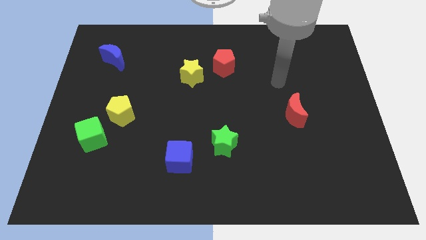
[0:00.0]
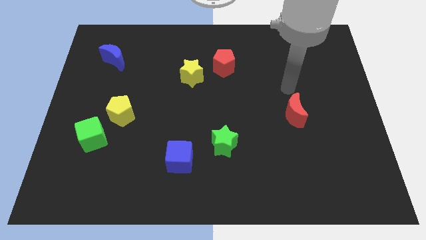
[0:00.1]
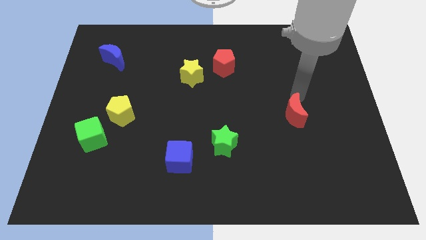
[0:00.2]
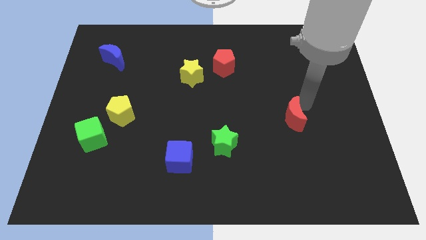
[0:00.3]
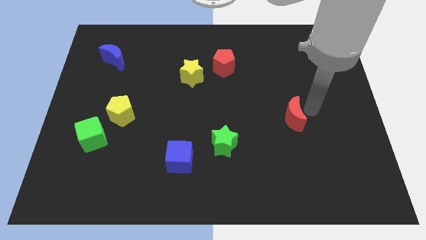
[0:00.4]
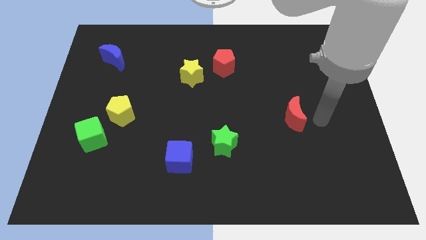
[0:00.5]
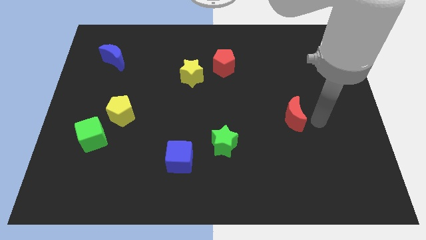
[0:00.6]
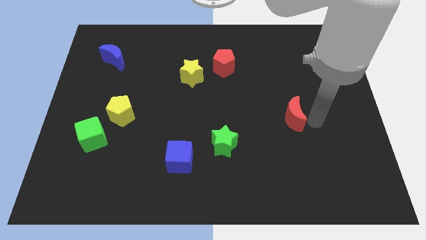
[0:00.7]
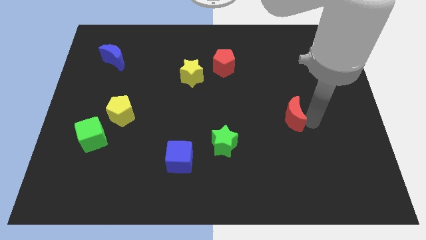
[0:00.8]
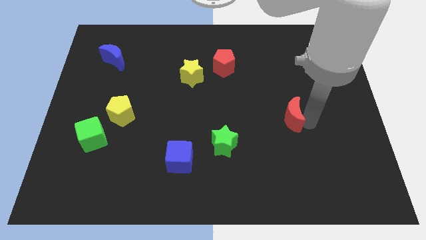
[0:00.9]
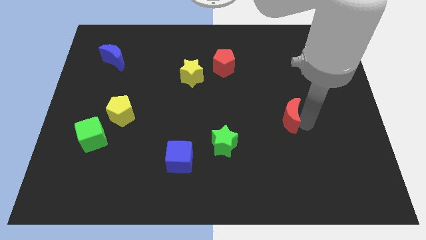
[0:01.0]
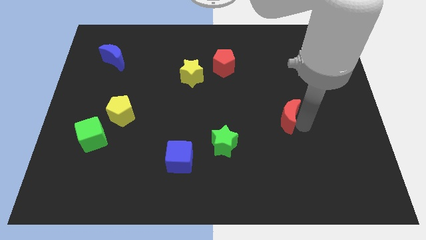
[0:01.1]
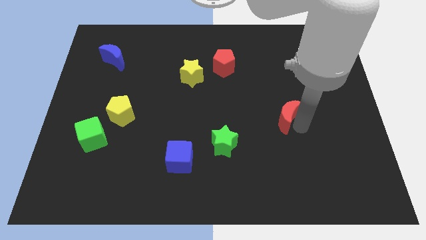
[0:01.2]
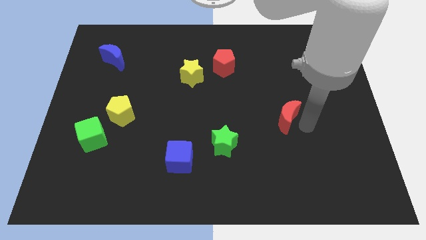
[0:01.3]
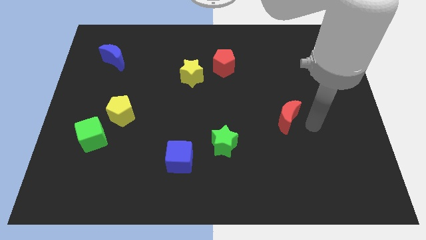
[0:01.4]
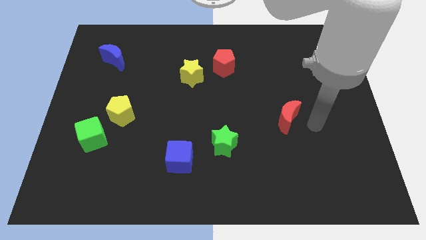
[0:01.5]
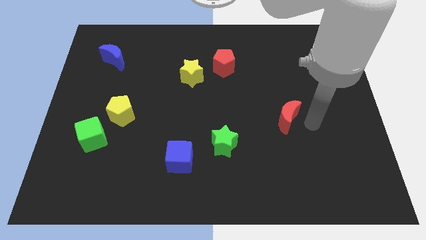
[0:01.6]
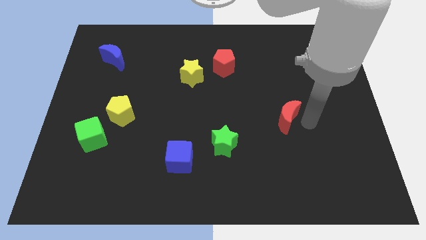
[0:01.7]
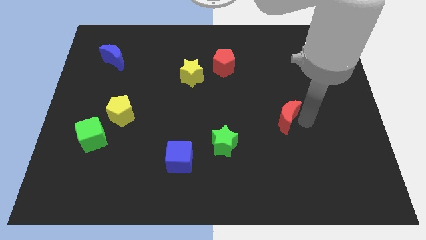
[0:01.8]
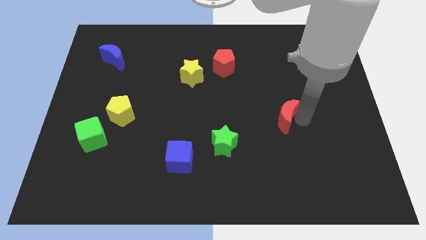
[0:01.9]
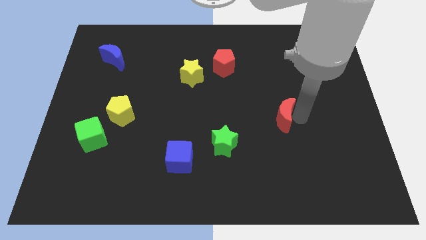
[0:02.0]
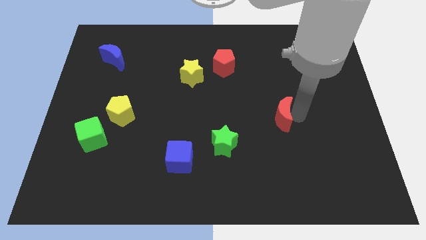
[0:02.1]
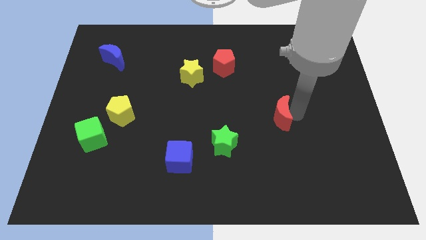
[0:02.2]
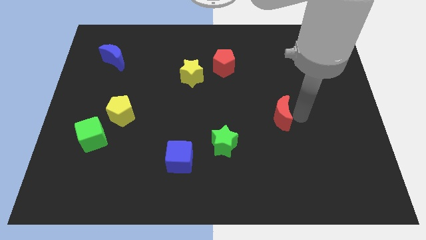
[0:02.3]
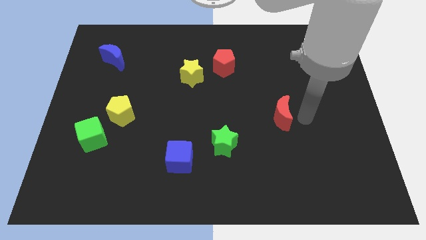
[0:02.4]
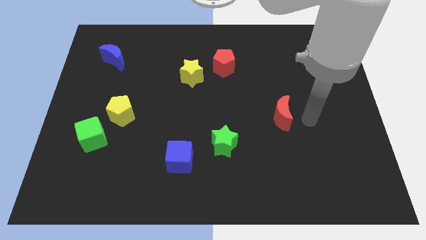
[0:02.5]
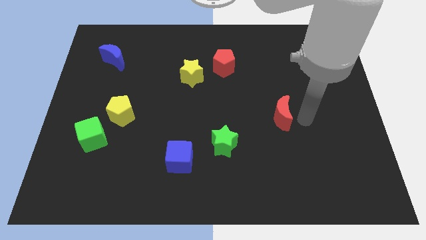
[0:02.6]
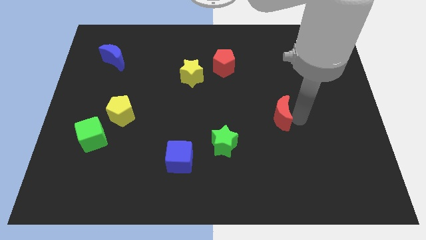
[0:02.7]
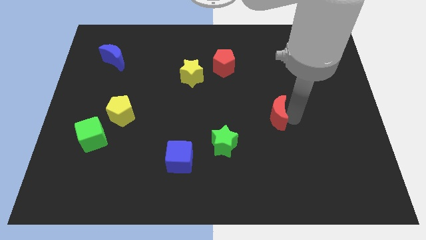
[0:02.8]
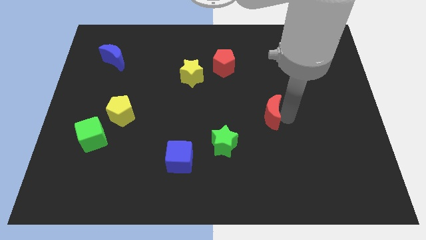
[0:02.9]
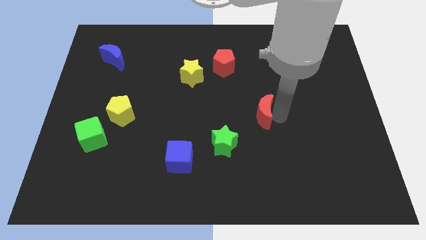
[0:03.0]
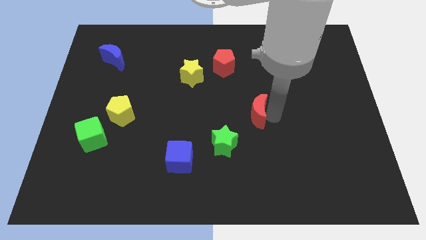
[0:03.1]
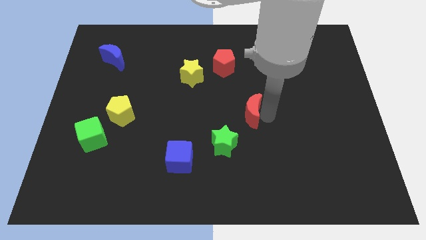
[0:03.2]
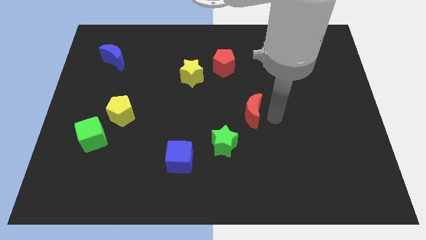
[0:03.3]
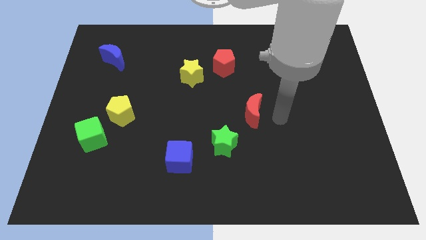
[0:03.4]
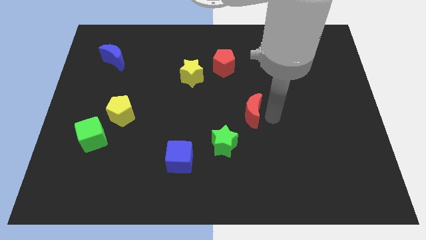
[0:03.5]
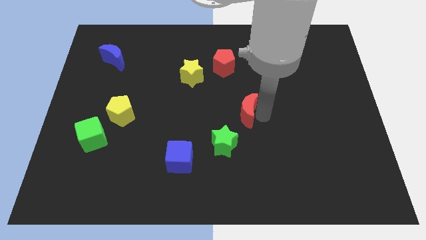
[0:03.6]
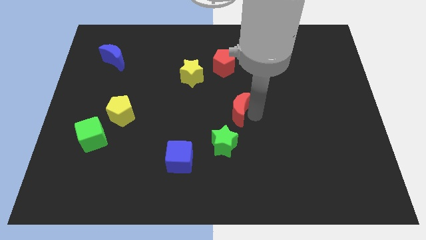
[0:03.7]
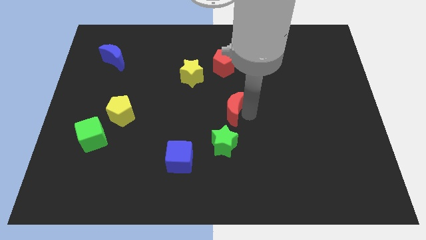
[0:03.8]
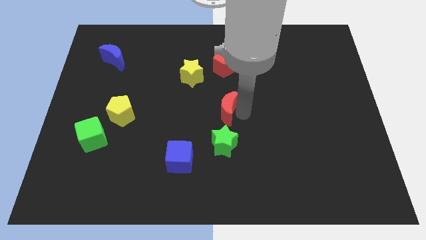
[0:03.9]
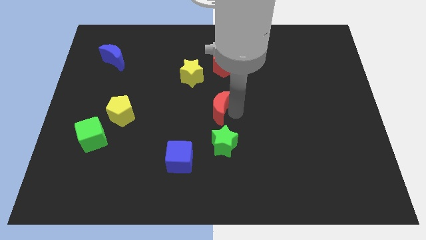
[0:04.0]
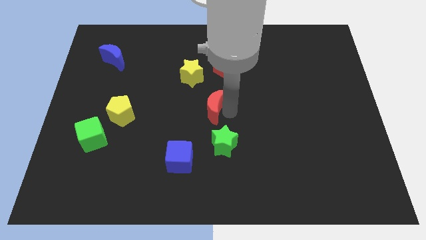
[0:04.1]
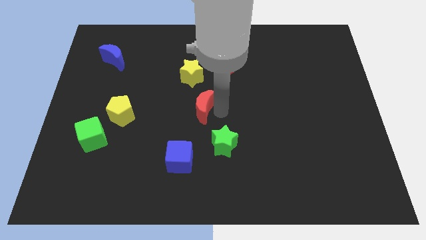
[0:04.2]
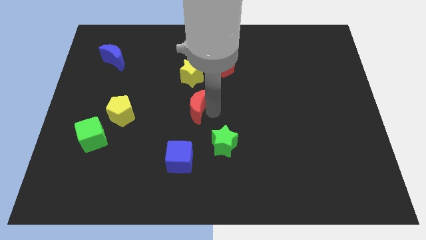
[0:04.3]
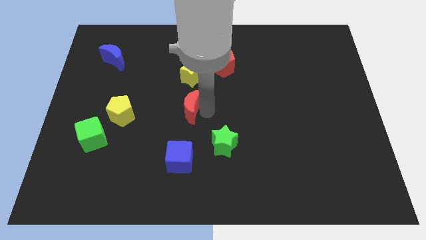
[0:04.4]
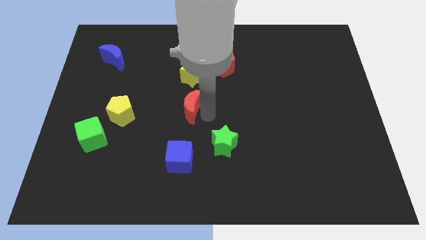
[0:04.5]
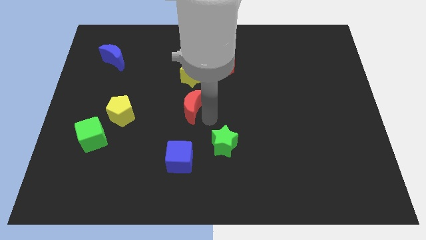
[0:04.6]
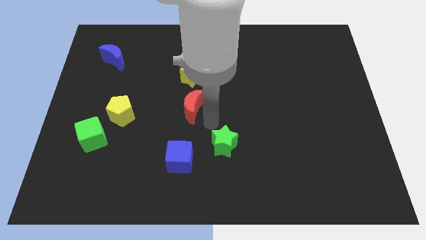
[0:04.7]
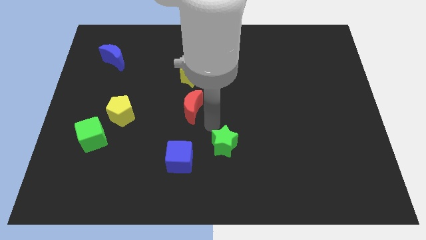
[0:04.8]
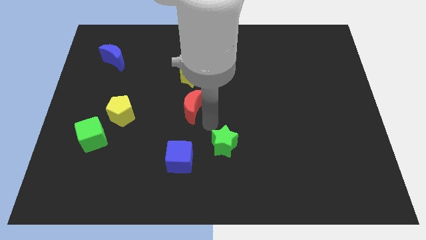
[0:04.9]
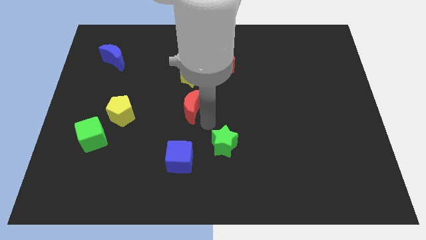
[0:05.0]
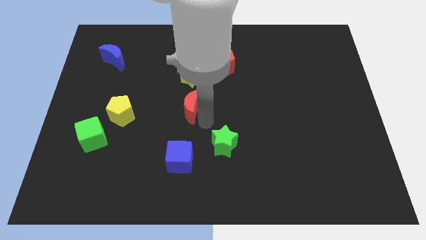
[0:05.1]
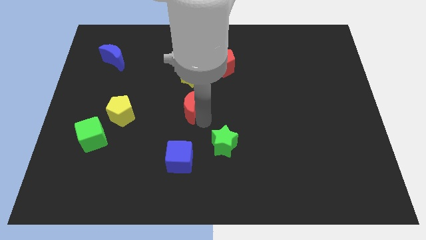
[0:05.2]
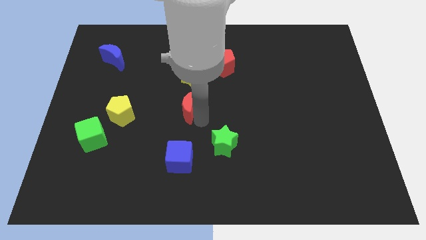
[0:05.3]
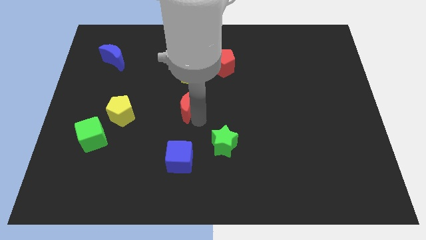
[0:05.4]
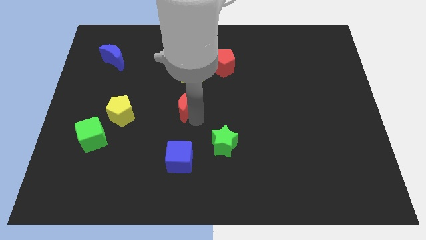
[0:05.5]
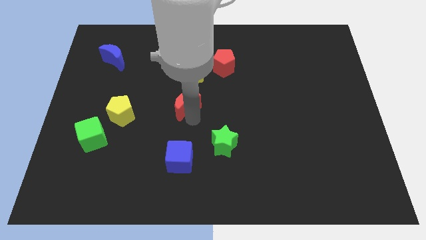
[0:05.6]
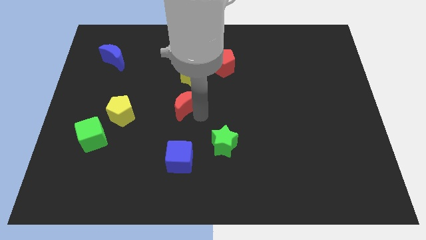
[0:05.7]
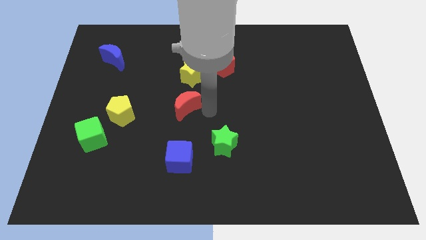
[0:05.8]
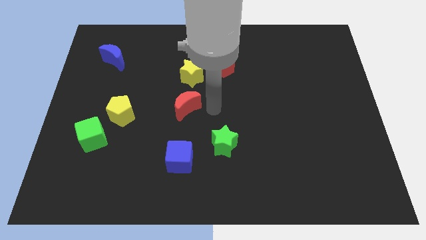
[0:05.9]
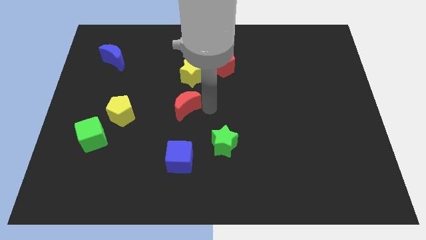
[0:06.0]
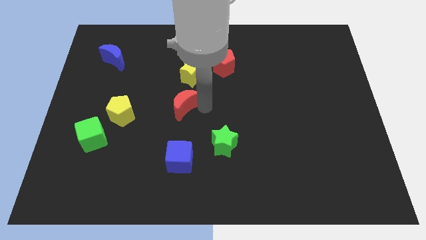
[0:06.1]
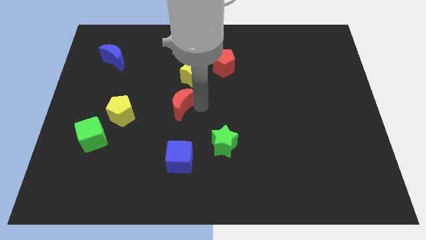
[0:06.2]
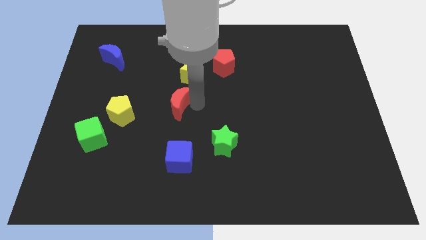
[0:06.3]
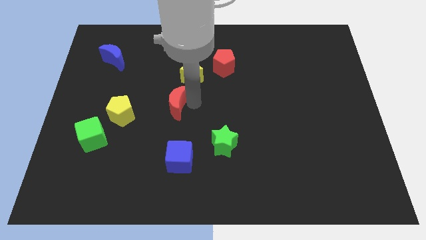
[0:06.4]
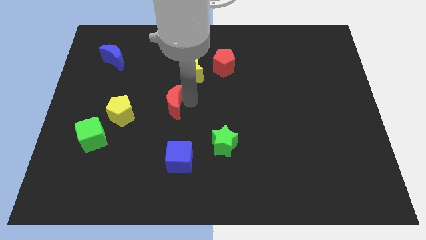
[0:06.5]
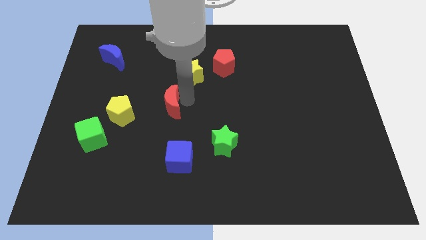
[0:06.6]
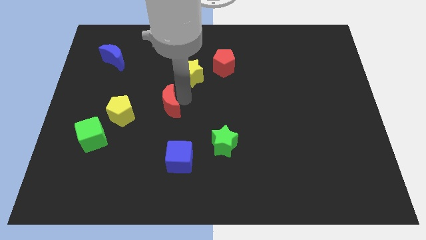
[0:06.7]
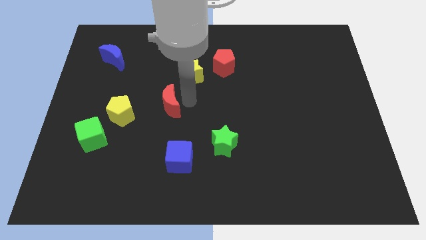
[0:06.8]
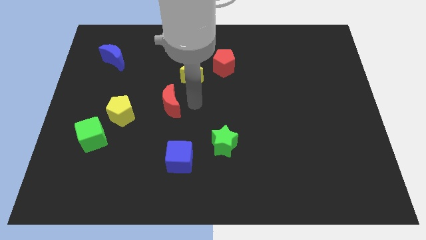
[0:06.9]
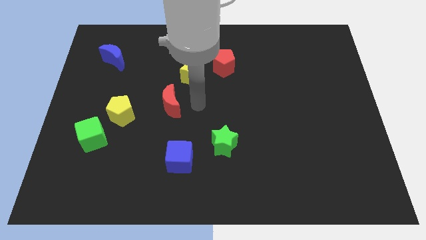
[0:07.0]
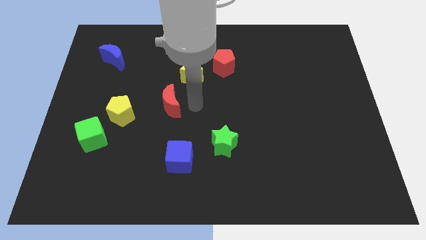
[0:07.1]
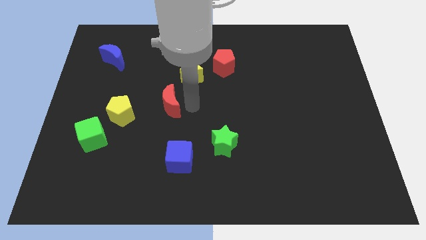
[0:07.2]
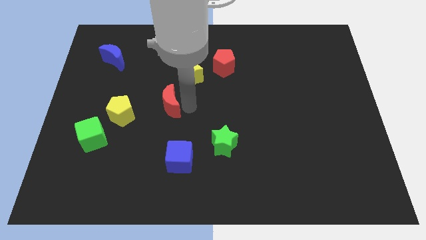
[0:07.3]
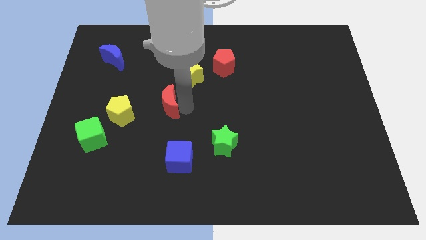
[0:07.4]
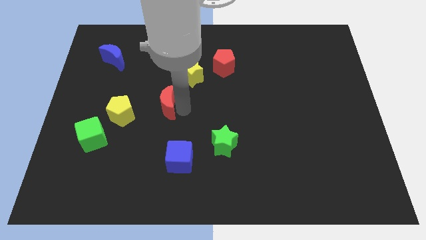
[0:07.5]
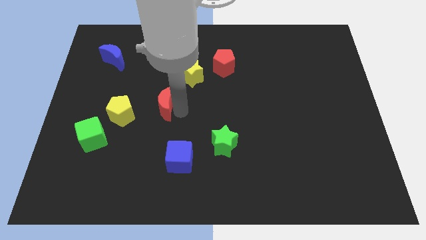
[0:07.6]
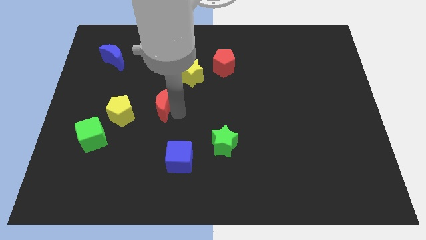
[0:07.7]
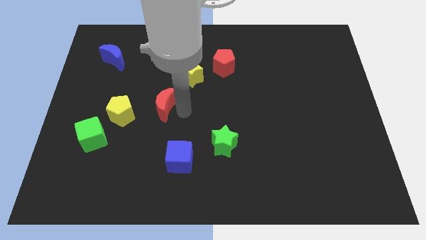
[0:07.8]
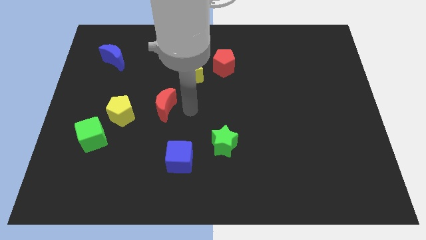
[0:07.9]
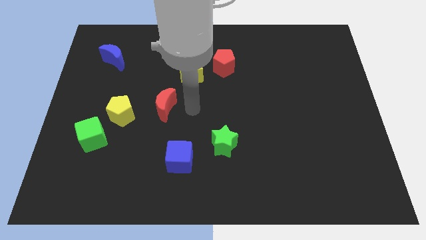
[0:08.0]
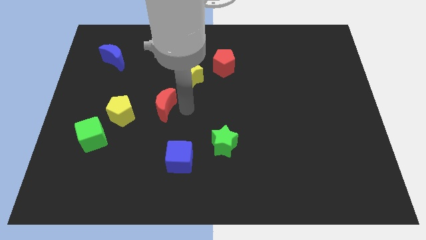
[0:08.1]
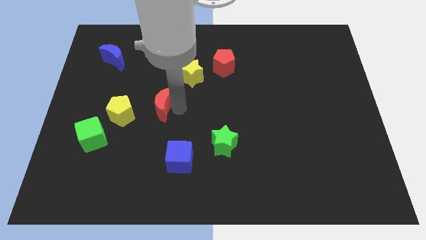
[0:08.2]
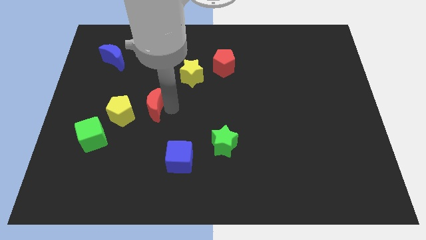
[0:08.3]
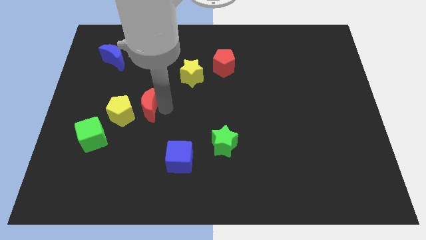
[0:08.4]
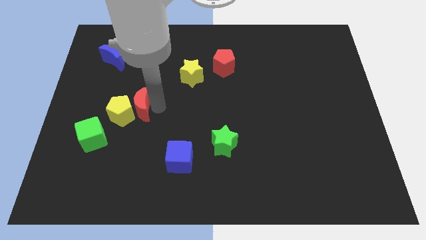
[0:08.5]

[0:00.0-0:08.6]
push the red moon to the yellow pentagon
